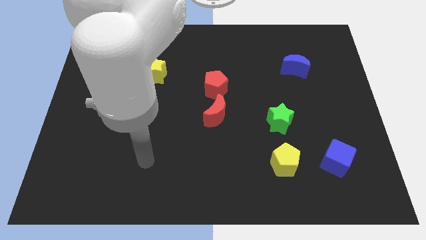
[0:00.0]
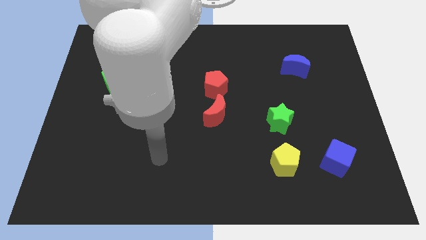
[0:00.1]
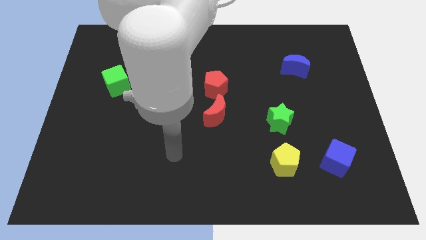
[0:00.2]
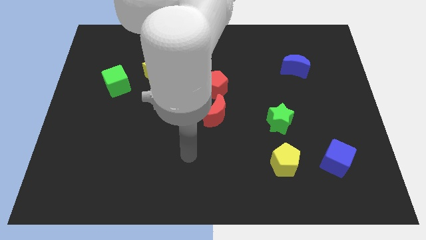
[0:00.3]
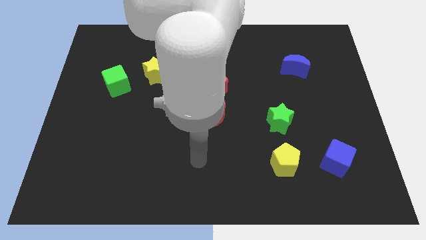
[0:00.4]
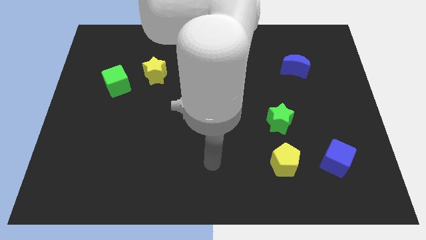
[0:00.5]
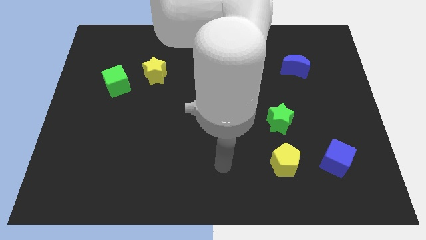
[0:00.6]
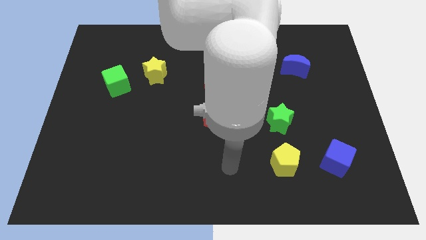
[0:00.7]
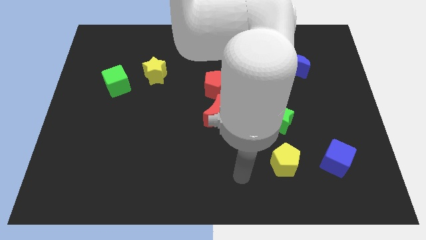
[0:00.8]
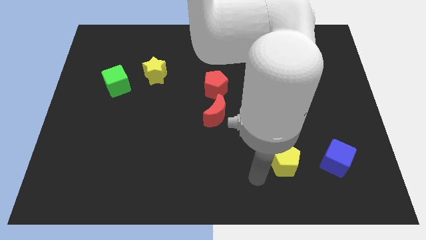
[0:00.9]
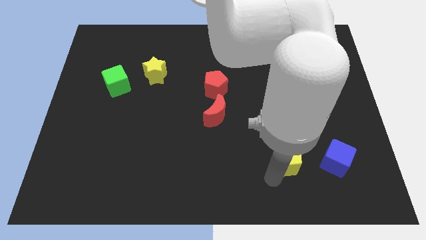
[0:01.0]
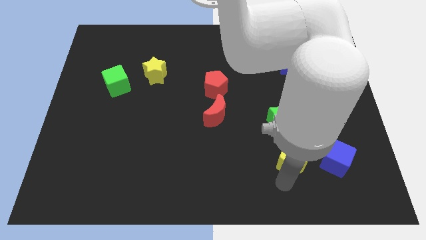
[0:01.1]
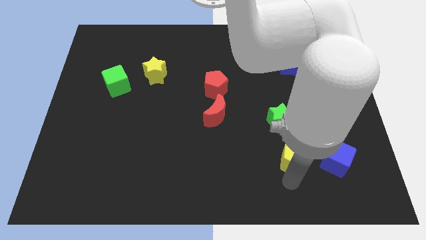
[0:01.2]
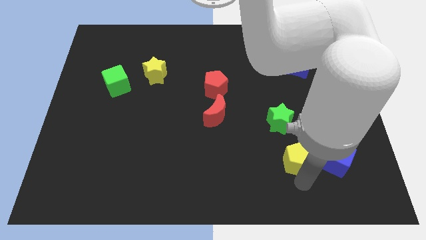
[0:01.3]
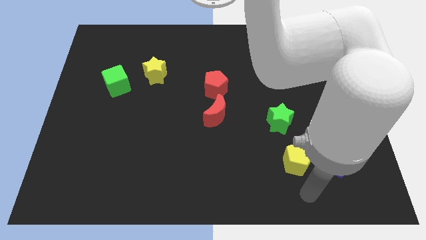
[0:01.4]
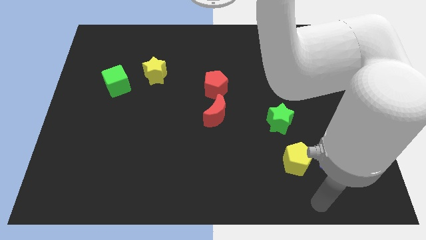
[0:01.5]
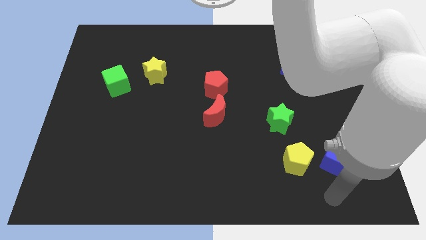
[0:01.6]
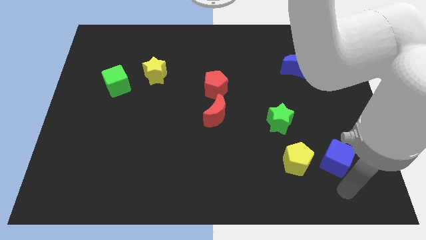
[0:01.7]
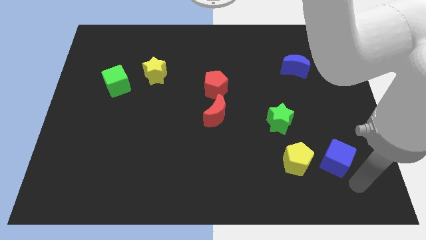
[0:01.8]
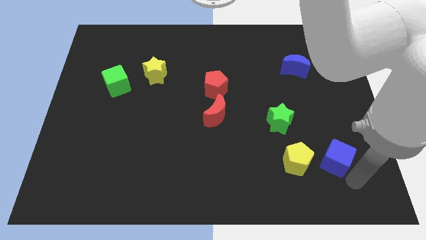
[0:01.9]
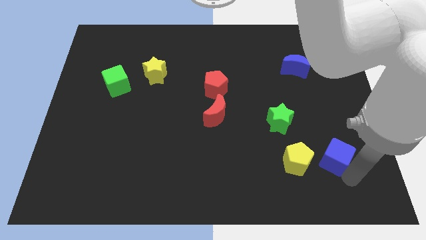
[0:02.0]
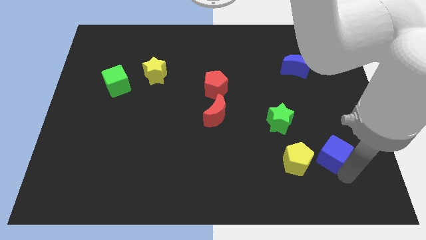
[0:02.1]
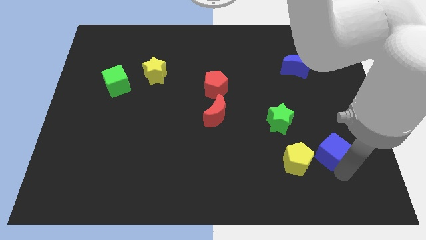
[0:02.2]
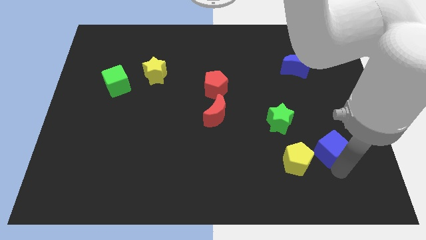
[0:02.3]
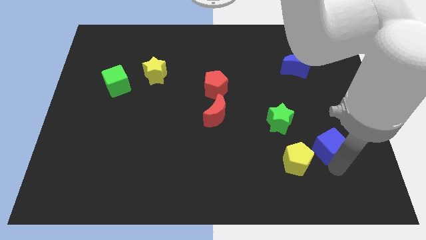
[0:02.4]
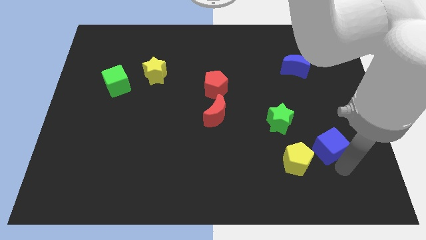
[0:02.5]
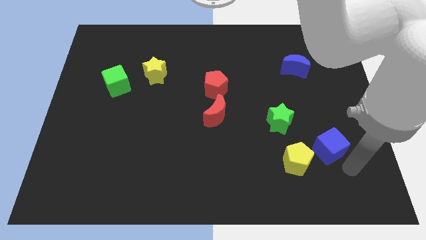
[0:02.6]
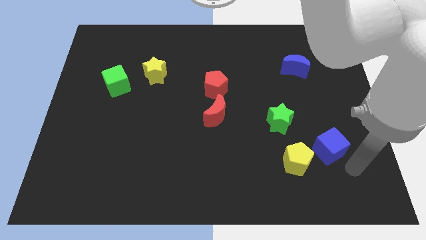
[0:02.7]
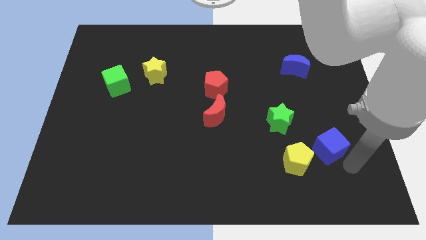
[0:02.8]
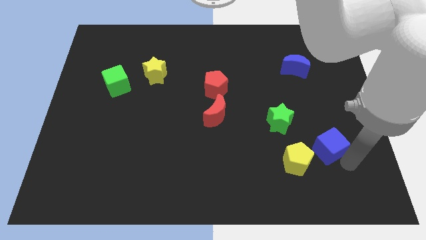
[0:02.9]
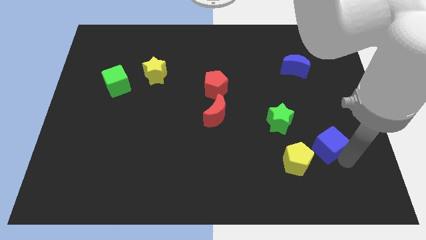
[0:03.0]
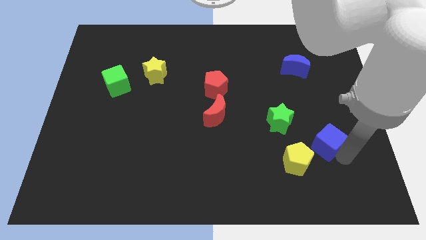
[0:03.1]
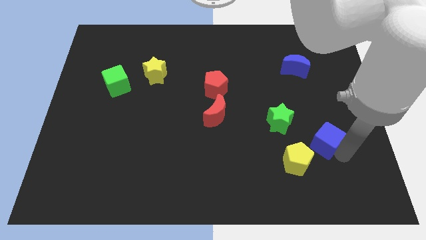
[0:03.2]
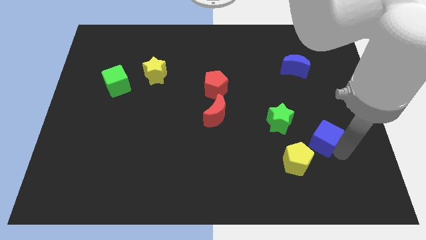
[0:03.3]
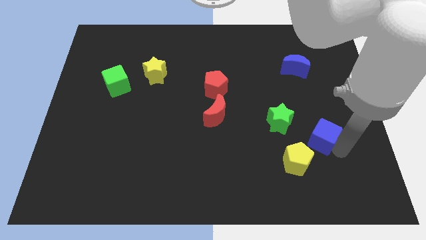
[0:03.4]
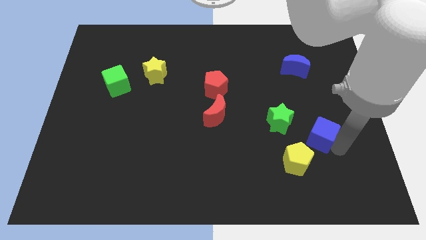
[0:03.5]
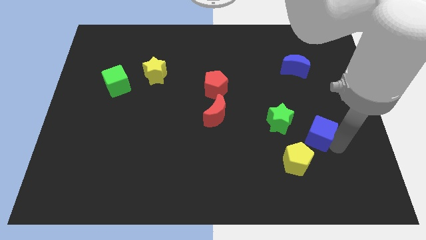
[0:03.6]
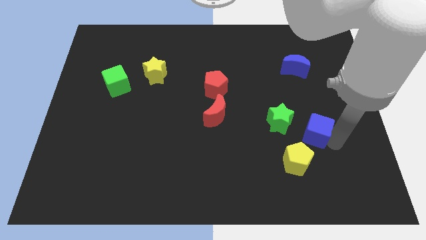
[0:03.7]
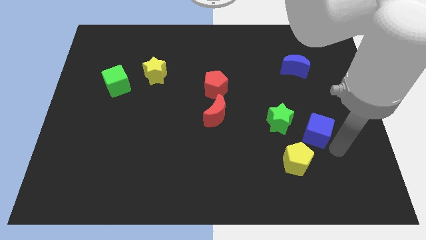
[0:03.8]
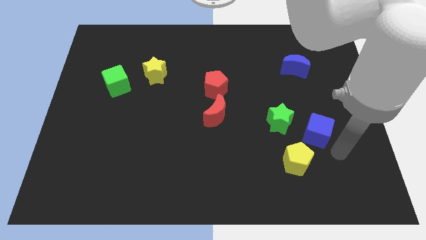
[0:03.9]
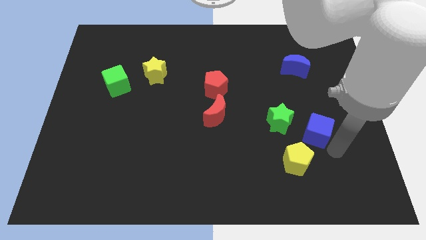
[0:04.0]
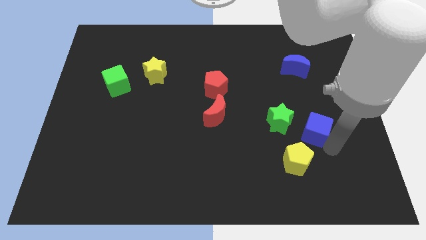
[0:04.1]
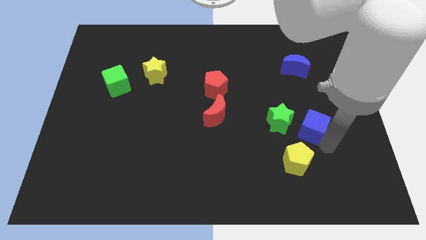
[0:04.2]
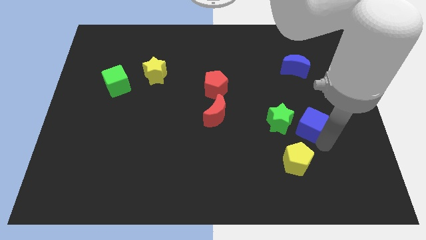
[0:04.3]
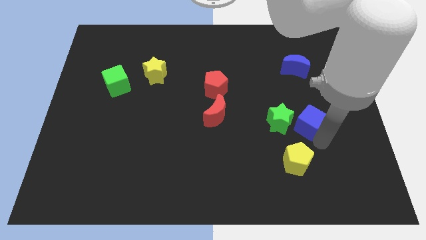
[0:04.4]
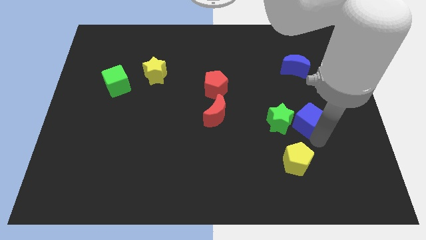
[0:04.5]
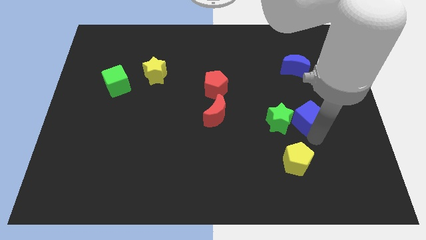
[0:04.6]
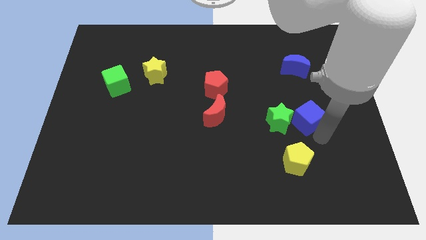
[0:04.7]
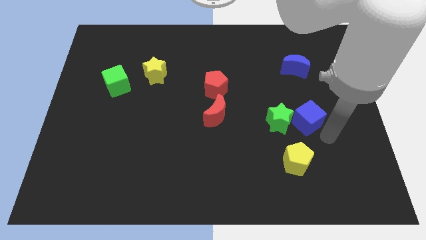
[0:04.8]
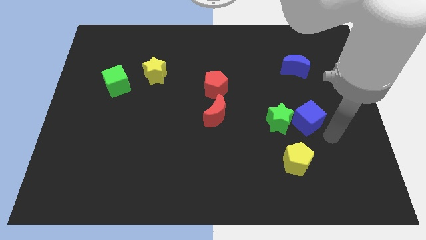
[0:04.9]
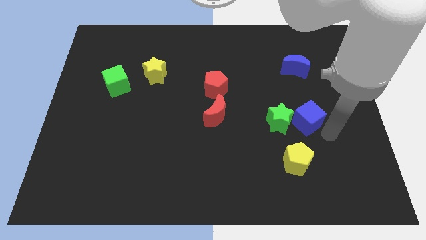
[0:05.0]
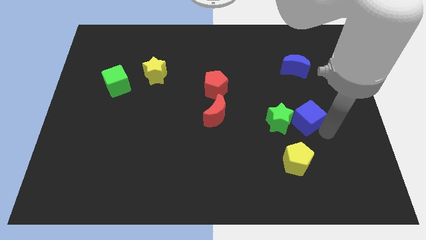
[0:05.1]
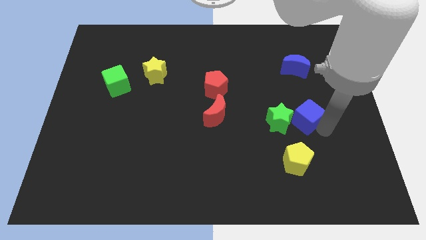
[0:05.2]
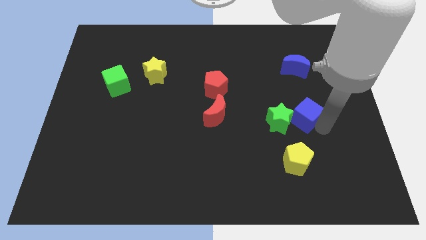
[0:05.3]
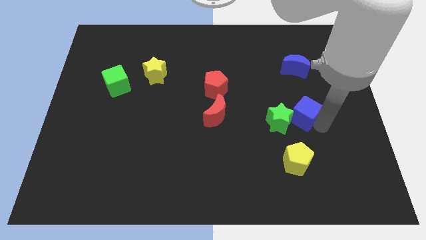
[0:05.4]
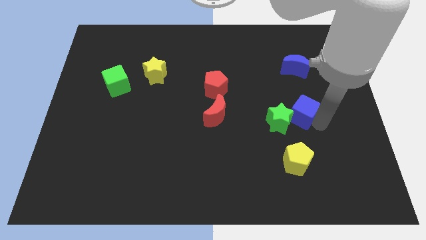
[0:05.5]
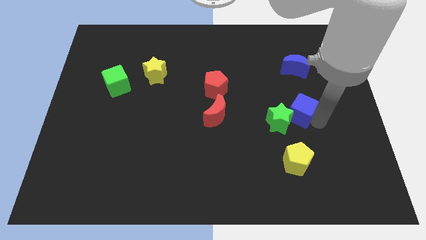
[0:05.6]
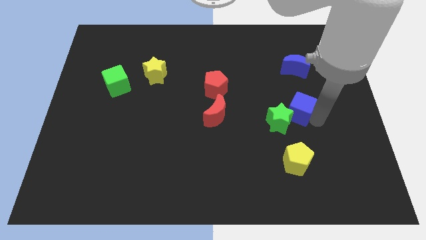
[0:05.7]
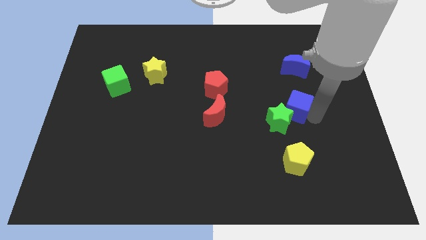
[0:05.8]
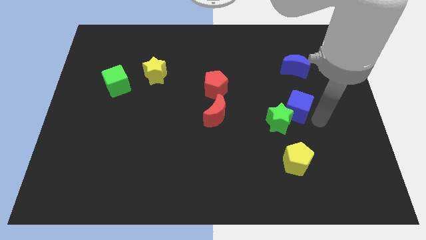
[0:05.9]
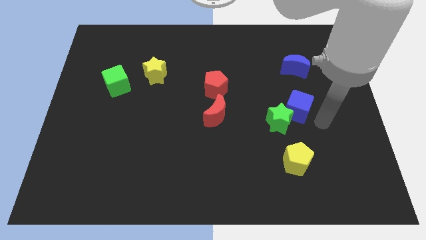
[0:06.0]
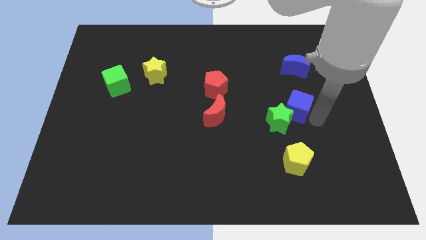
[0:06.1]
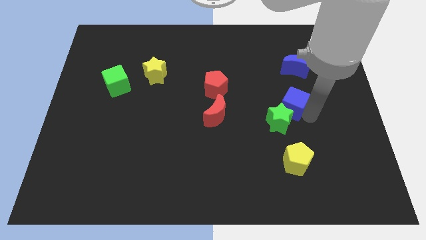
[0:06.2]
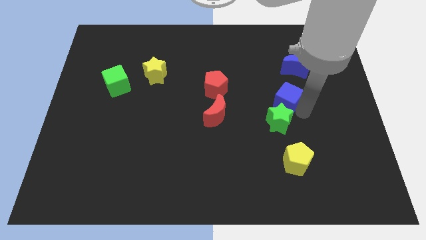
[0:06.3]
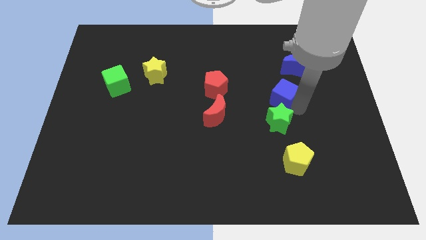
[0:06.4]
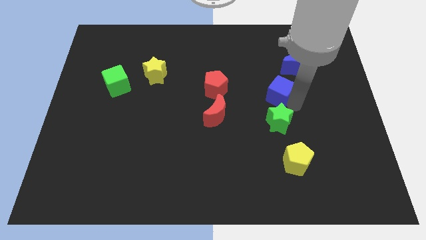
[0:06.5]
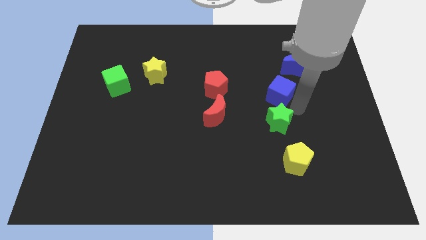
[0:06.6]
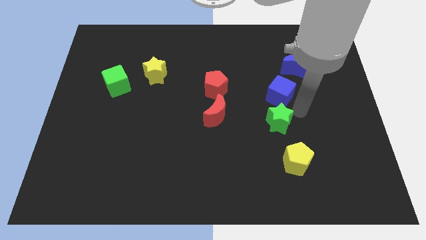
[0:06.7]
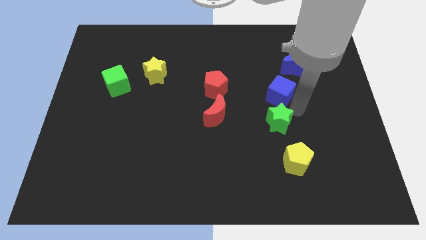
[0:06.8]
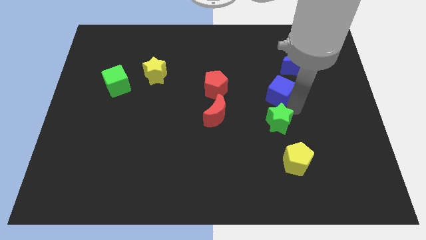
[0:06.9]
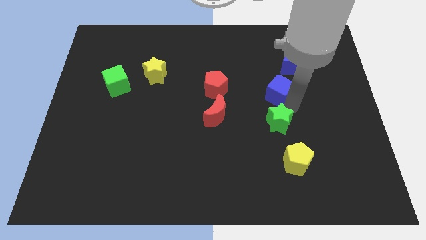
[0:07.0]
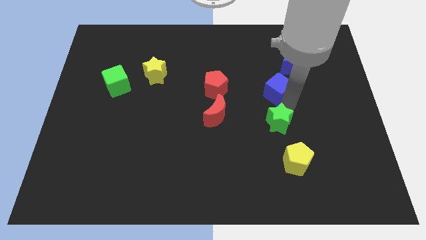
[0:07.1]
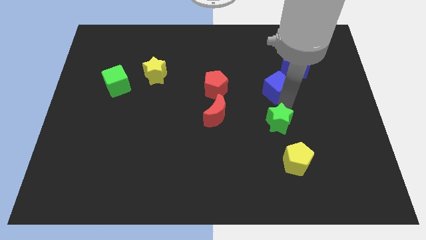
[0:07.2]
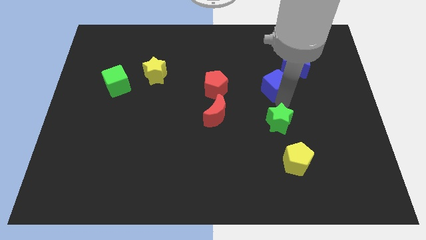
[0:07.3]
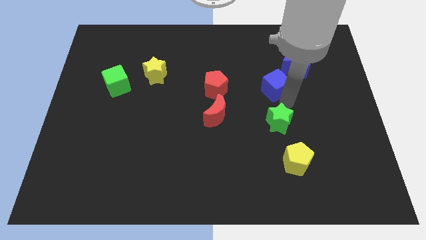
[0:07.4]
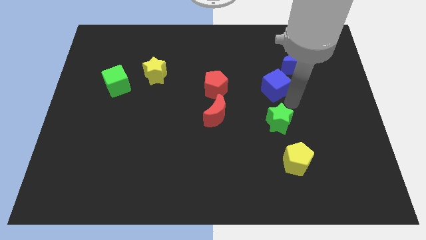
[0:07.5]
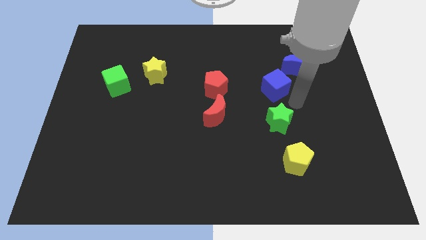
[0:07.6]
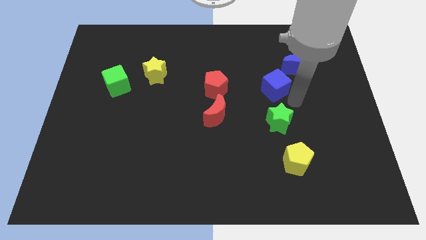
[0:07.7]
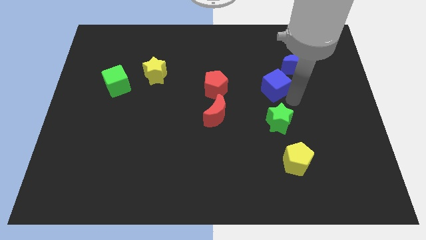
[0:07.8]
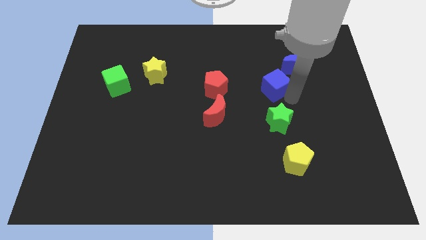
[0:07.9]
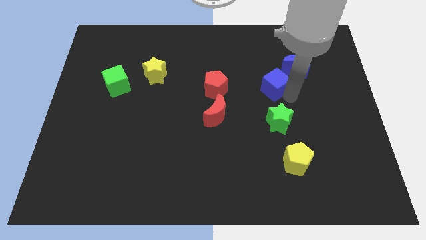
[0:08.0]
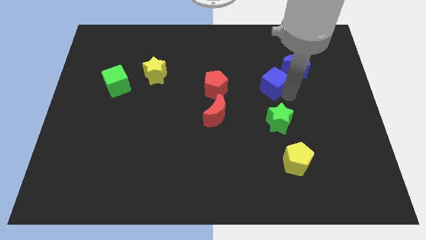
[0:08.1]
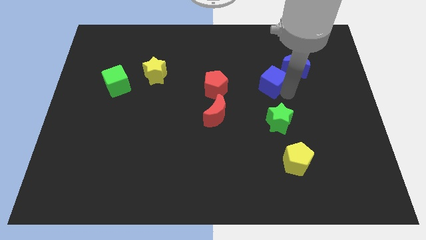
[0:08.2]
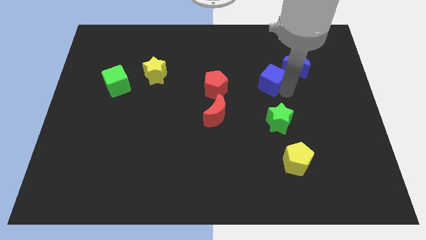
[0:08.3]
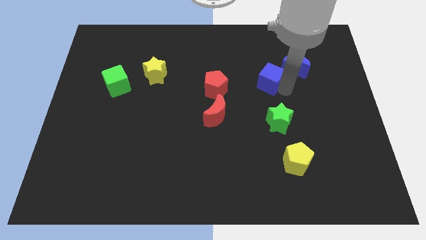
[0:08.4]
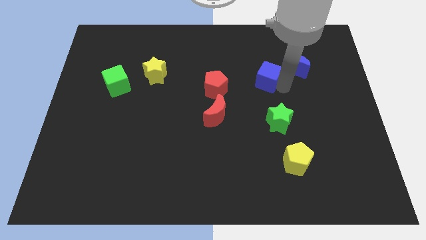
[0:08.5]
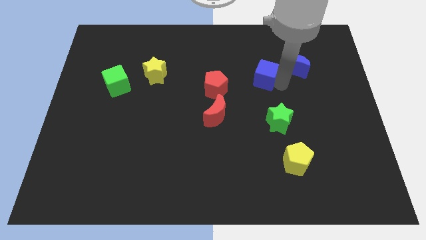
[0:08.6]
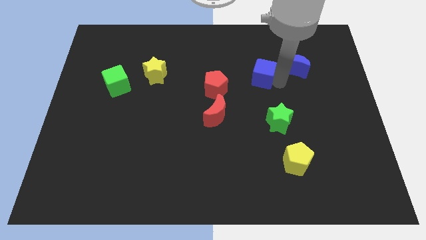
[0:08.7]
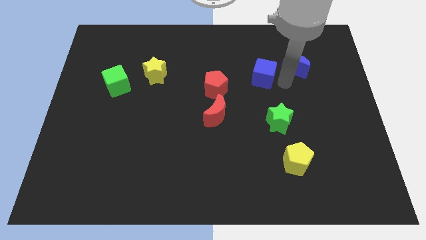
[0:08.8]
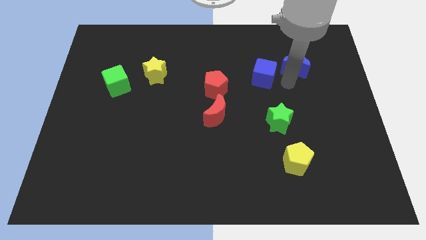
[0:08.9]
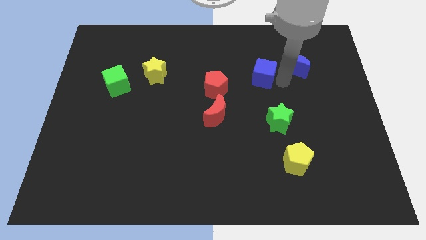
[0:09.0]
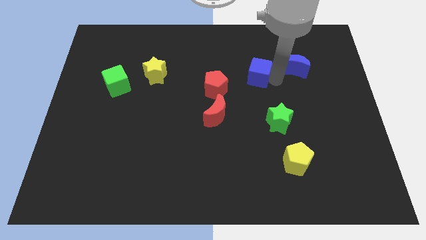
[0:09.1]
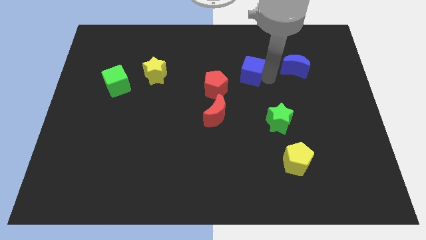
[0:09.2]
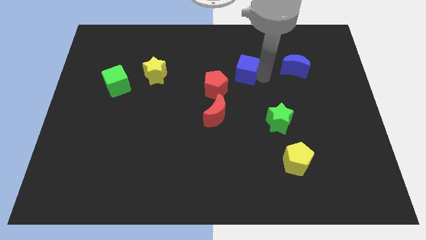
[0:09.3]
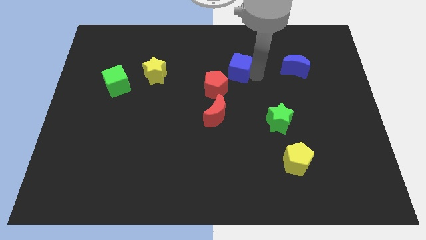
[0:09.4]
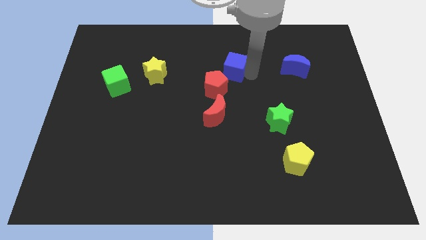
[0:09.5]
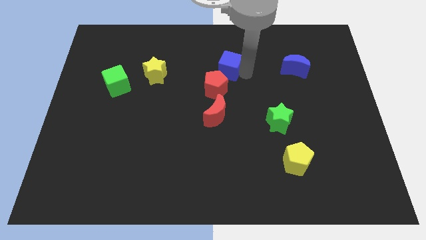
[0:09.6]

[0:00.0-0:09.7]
slide the blue cube to the top side of the red pentagon
